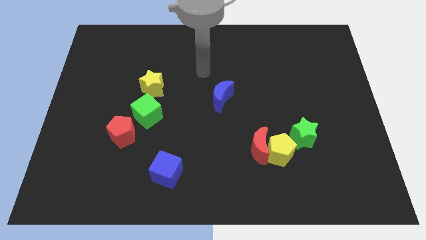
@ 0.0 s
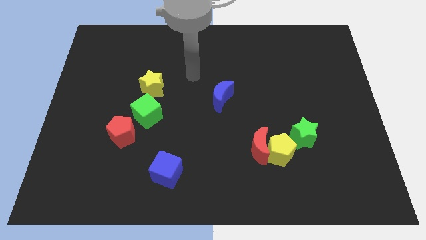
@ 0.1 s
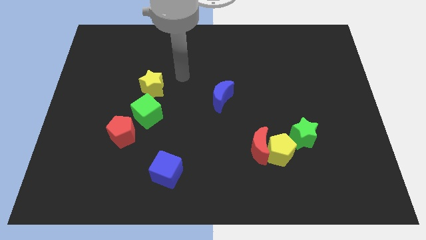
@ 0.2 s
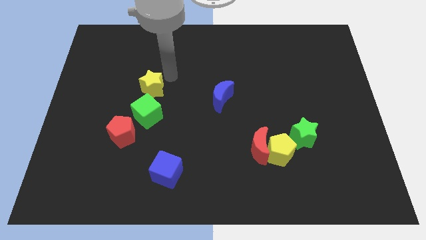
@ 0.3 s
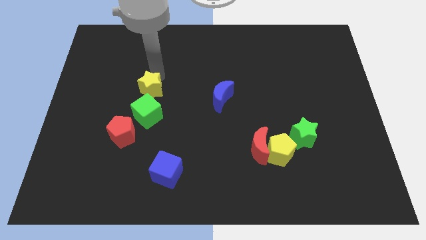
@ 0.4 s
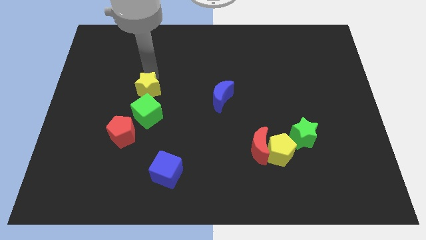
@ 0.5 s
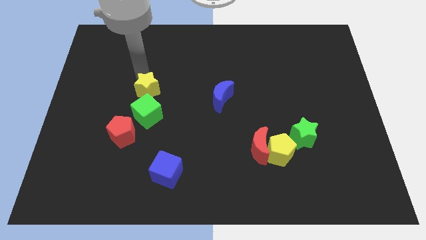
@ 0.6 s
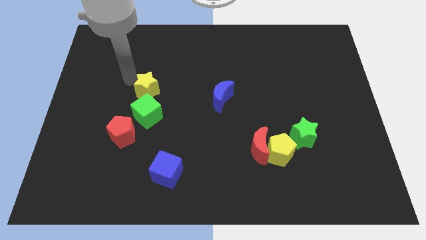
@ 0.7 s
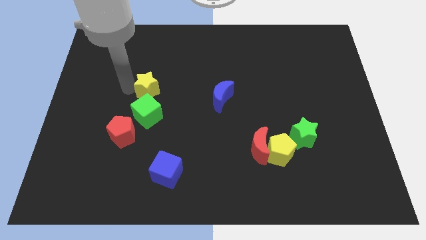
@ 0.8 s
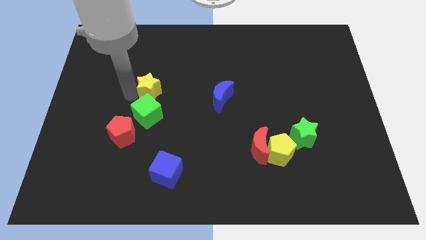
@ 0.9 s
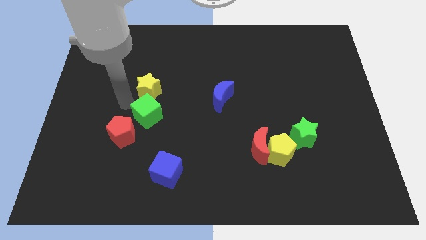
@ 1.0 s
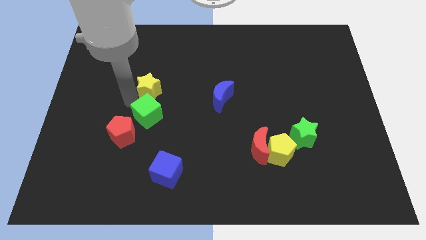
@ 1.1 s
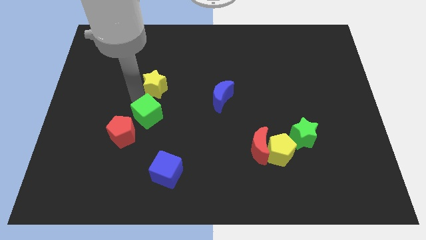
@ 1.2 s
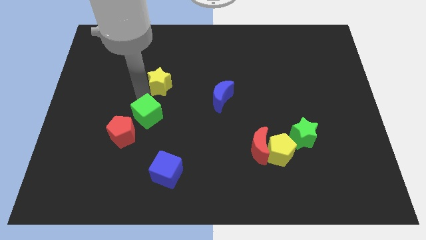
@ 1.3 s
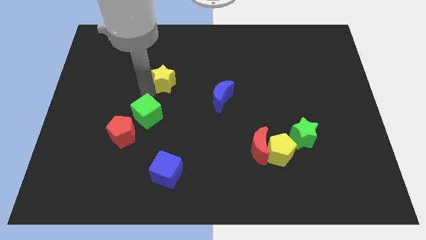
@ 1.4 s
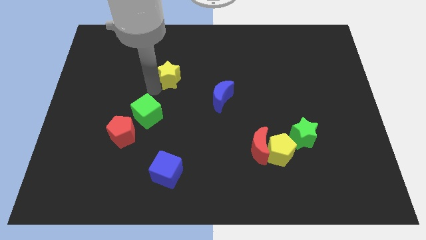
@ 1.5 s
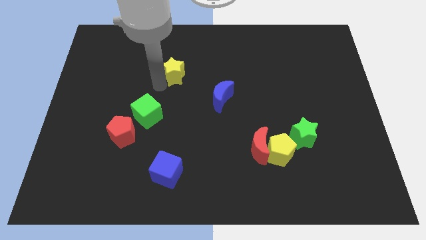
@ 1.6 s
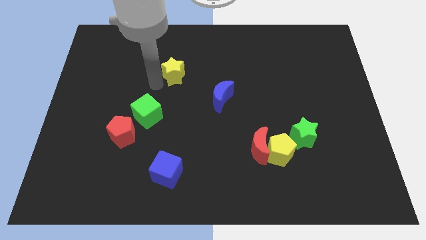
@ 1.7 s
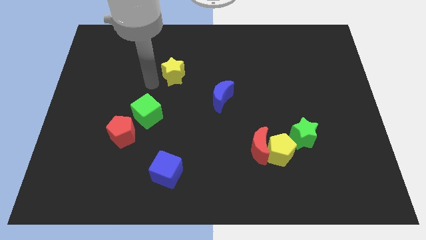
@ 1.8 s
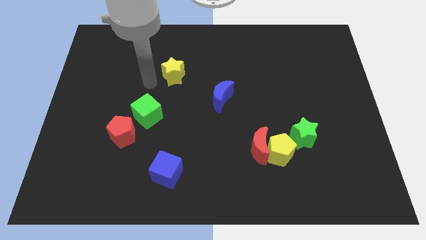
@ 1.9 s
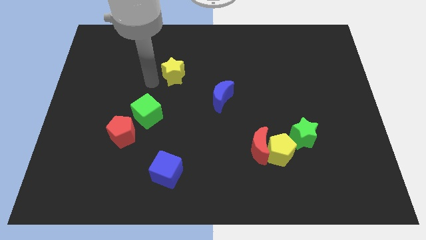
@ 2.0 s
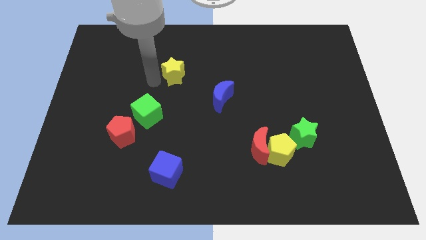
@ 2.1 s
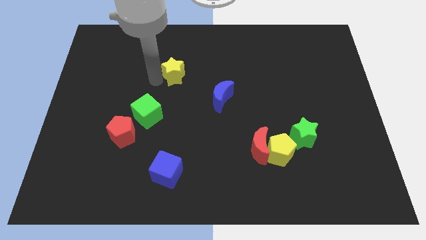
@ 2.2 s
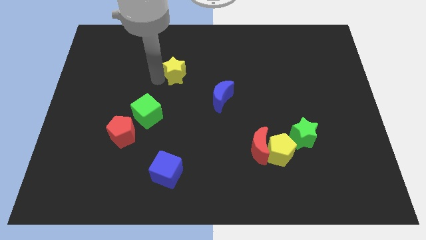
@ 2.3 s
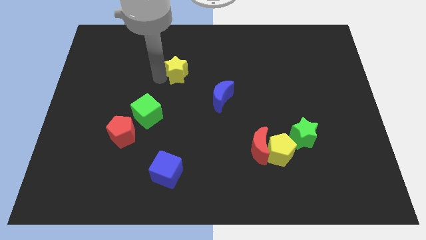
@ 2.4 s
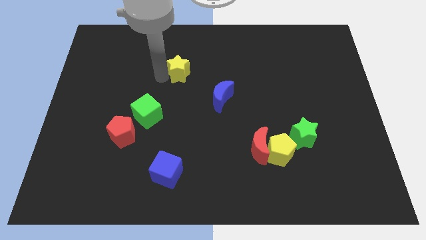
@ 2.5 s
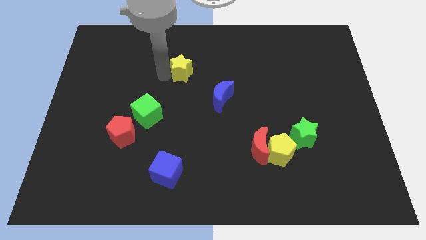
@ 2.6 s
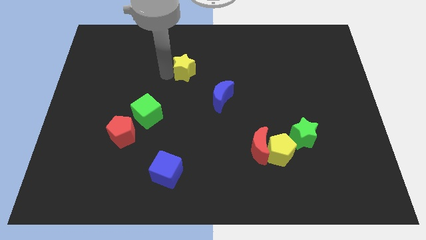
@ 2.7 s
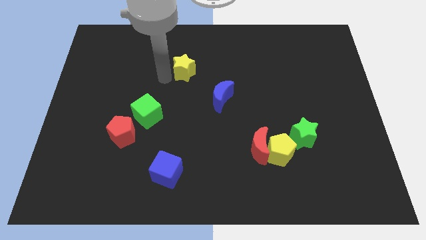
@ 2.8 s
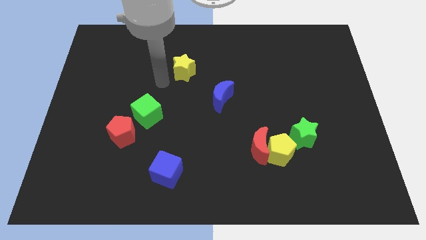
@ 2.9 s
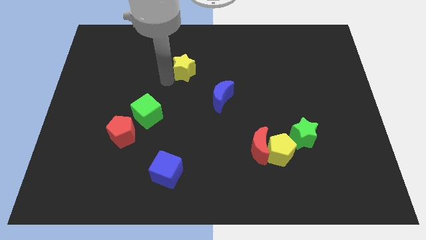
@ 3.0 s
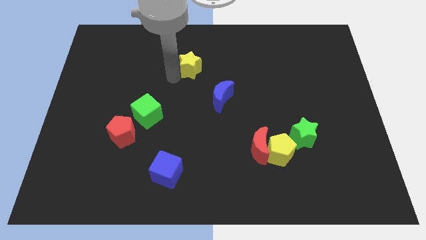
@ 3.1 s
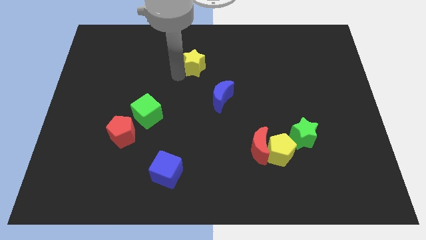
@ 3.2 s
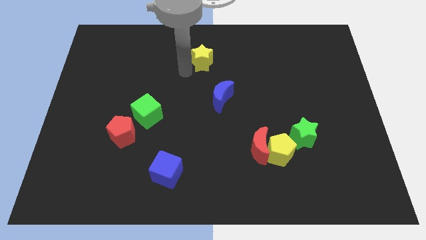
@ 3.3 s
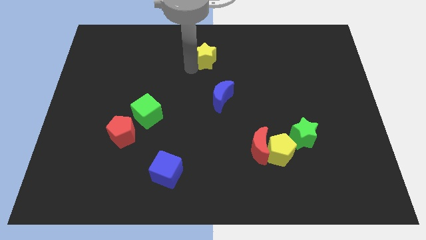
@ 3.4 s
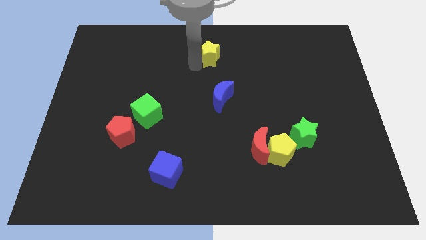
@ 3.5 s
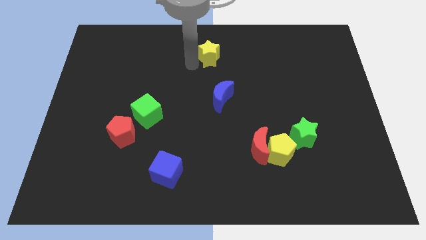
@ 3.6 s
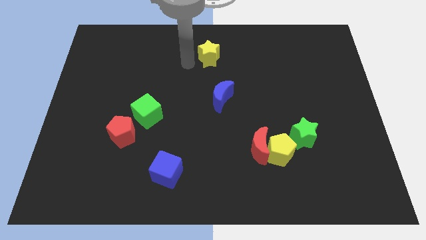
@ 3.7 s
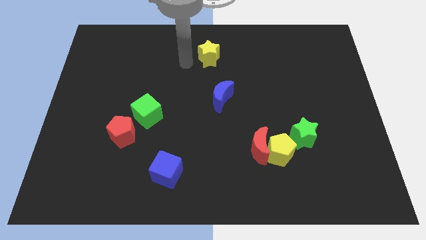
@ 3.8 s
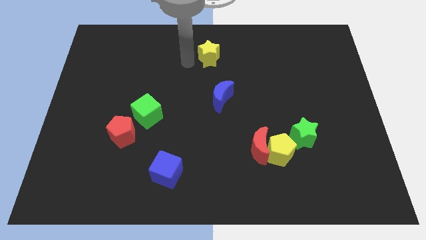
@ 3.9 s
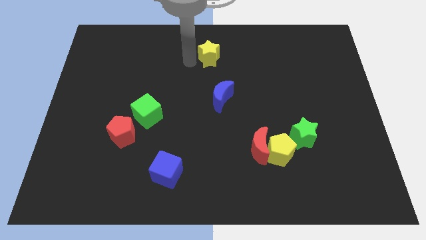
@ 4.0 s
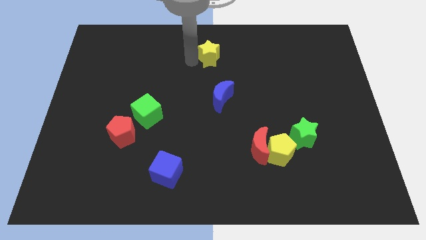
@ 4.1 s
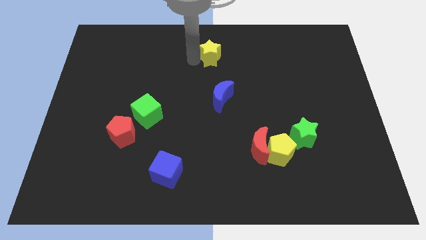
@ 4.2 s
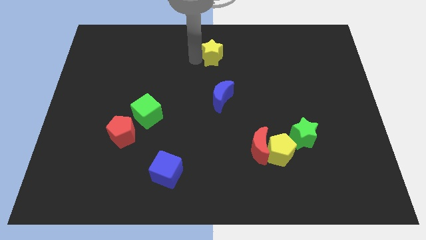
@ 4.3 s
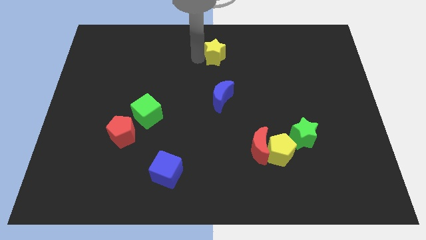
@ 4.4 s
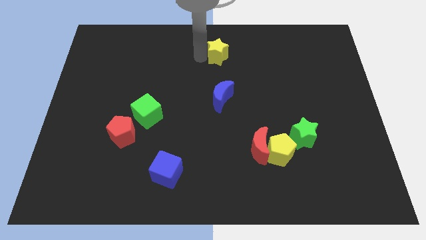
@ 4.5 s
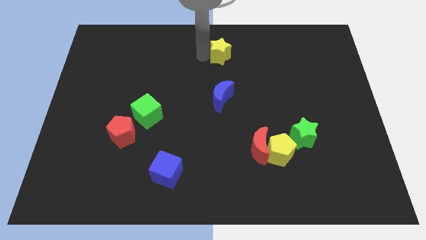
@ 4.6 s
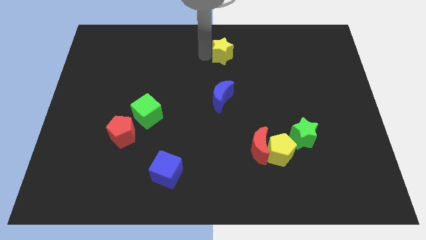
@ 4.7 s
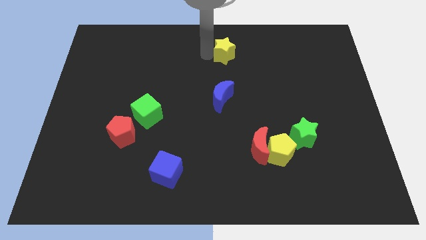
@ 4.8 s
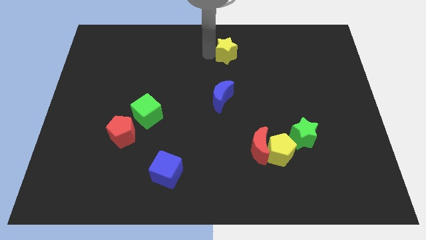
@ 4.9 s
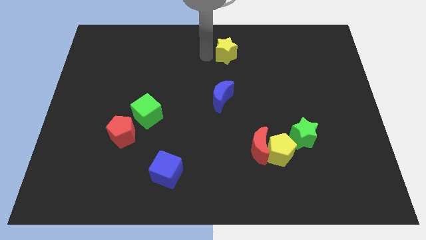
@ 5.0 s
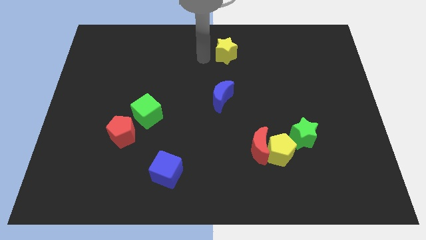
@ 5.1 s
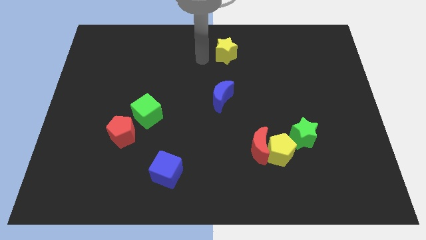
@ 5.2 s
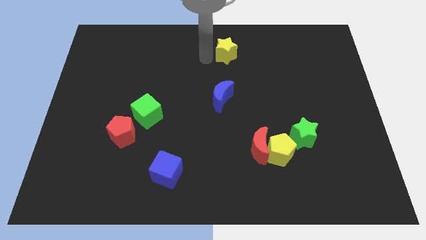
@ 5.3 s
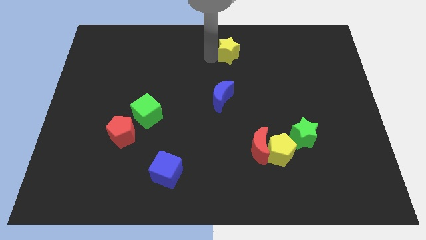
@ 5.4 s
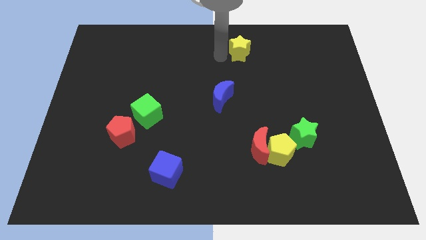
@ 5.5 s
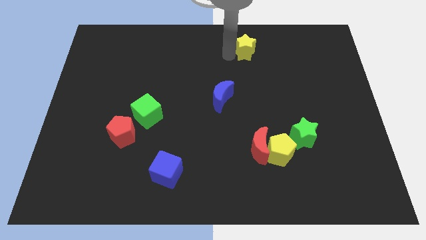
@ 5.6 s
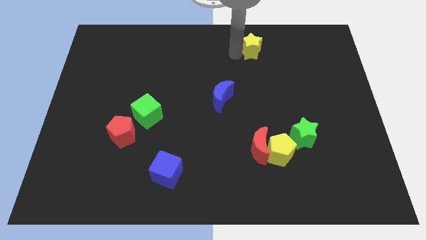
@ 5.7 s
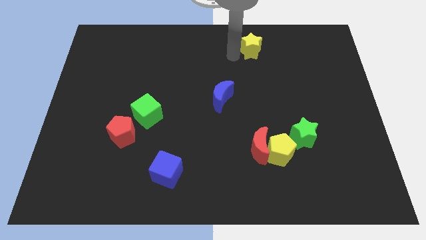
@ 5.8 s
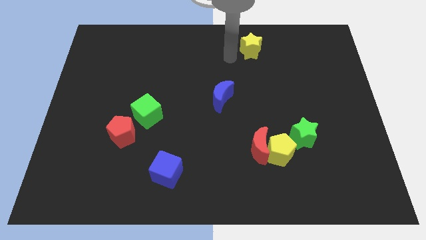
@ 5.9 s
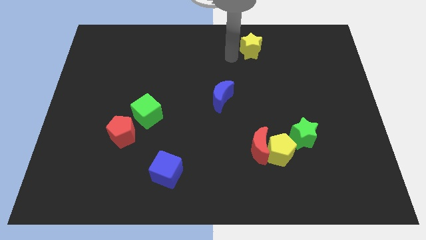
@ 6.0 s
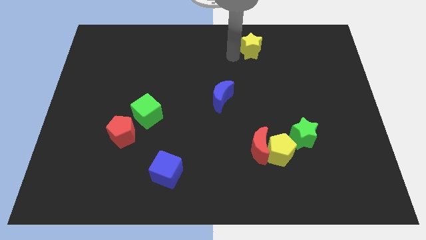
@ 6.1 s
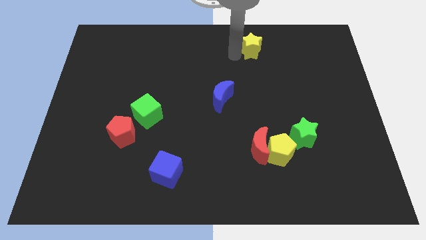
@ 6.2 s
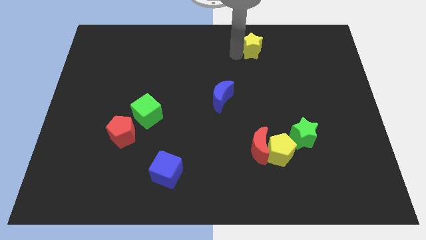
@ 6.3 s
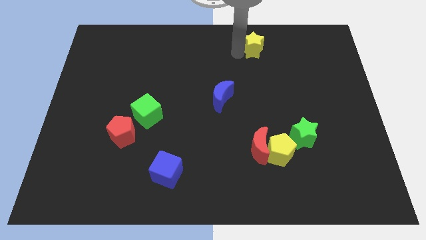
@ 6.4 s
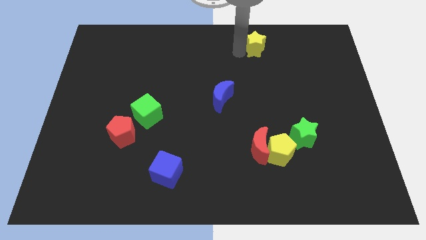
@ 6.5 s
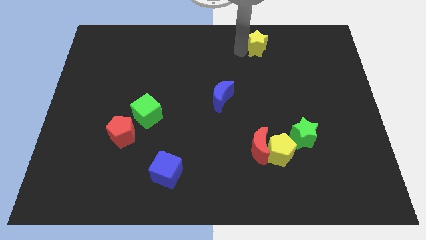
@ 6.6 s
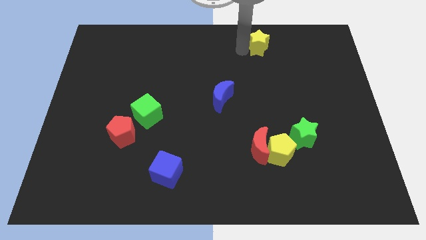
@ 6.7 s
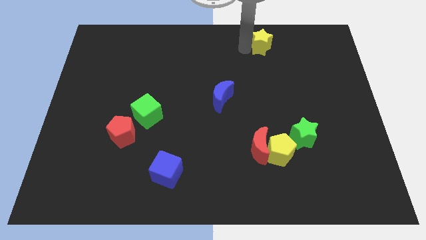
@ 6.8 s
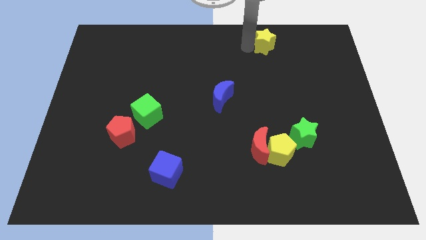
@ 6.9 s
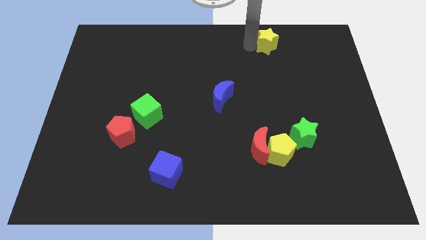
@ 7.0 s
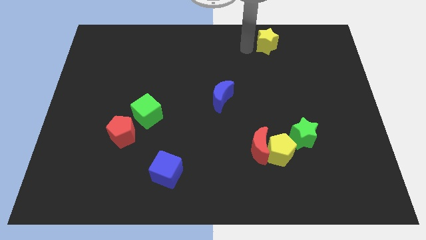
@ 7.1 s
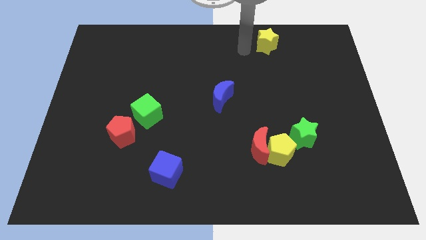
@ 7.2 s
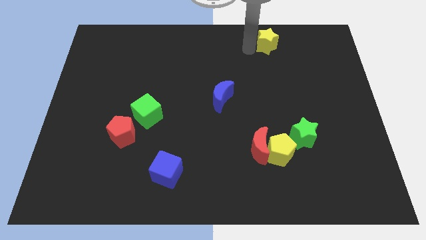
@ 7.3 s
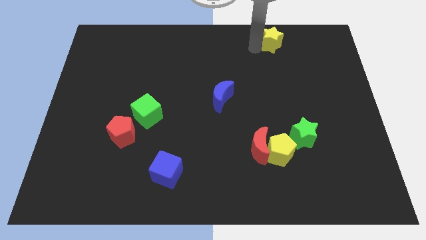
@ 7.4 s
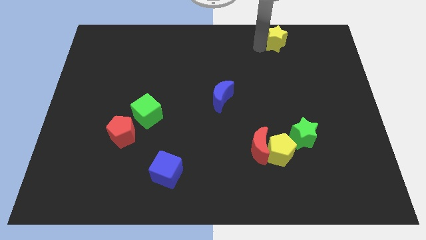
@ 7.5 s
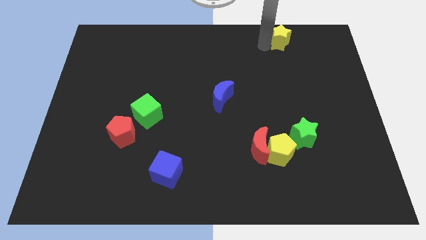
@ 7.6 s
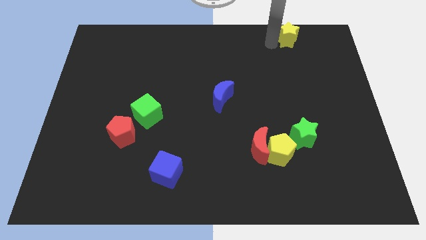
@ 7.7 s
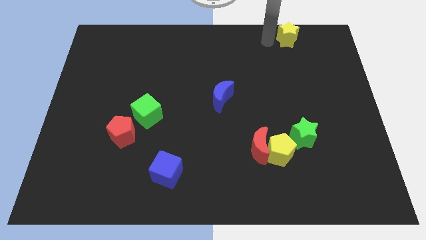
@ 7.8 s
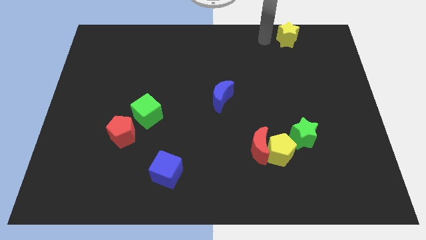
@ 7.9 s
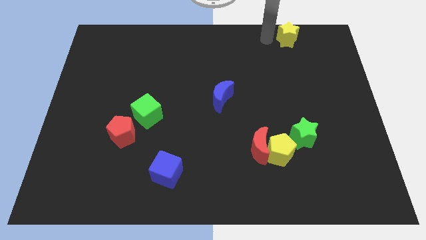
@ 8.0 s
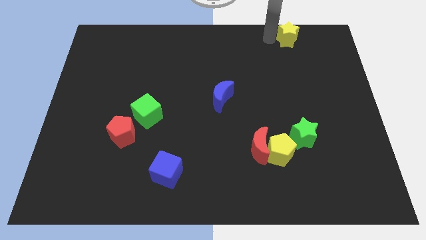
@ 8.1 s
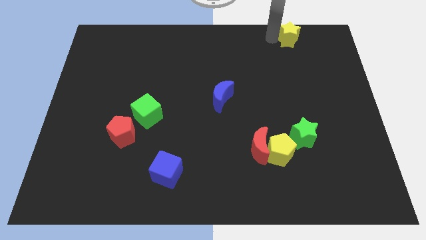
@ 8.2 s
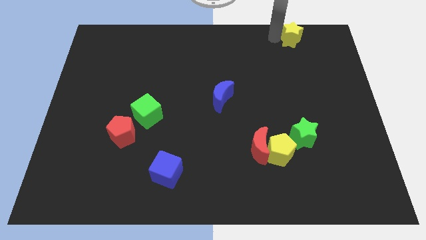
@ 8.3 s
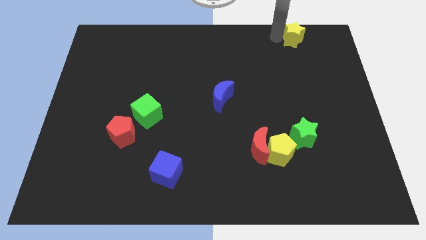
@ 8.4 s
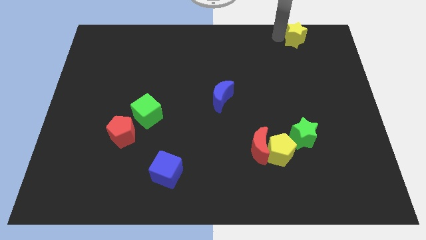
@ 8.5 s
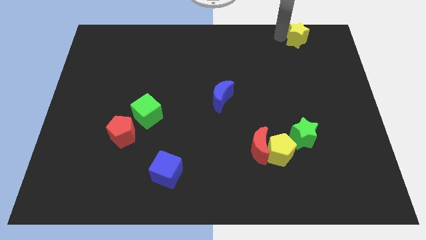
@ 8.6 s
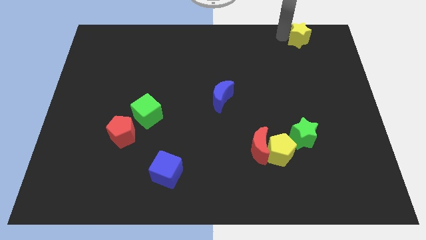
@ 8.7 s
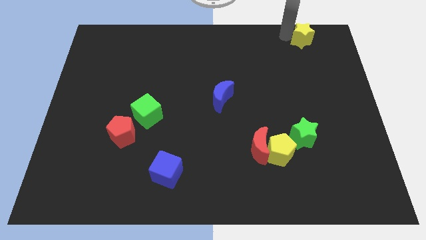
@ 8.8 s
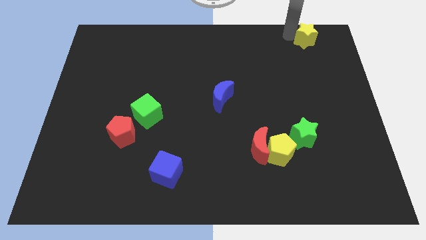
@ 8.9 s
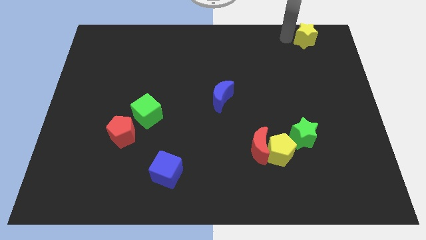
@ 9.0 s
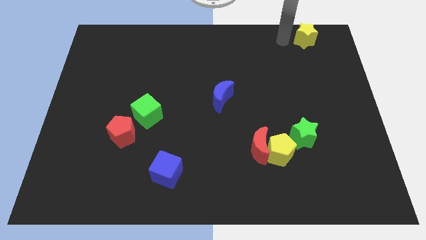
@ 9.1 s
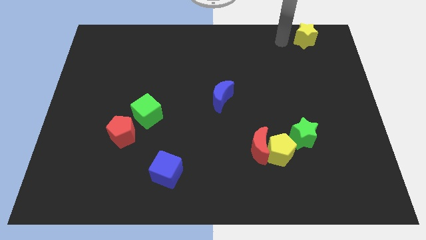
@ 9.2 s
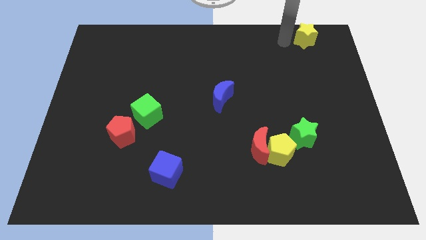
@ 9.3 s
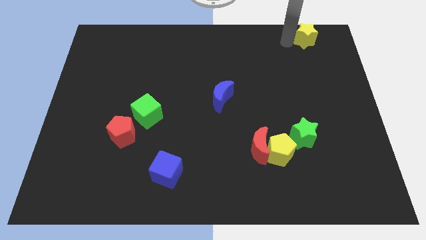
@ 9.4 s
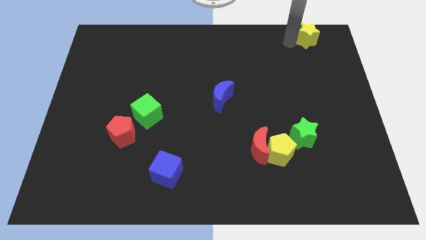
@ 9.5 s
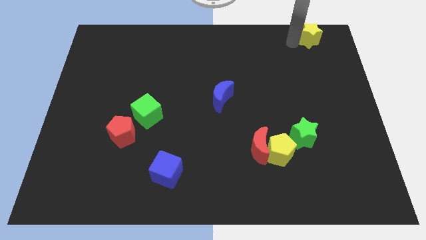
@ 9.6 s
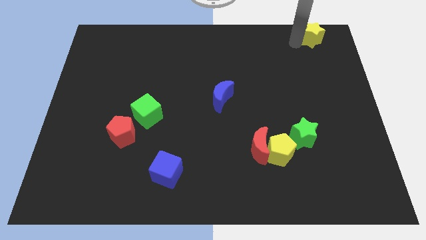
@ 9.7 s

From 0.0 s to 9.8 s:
push the yellow star to the top right corner
